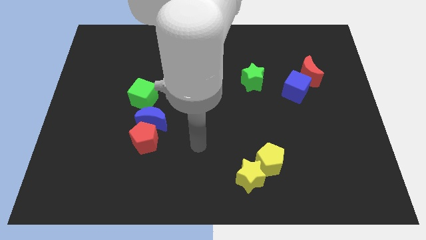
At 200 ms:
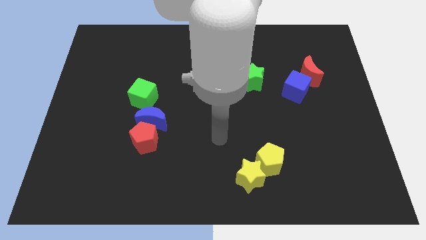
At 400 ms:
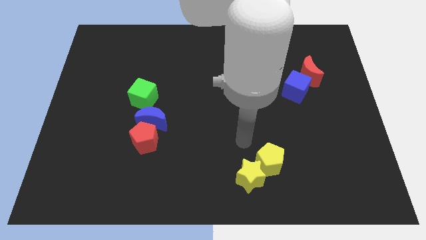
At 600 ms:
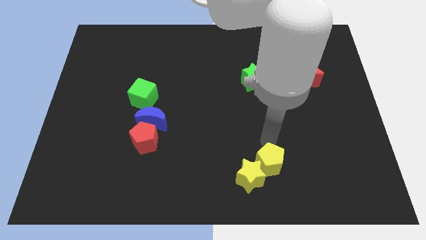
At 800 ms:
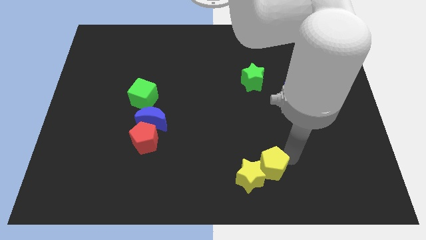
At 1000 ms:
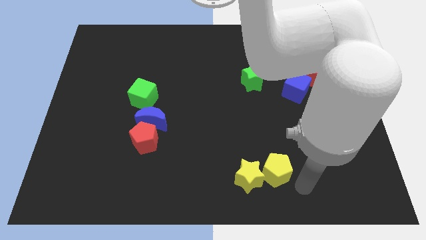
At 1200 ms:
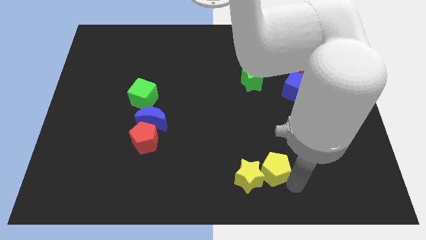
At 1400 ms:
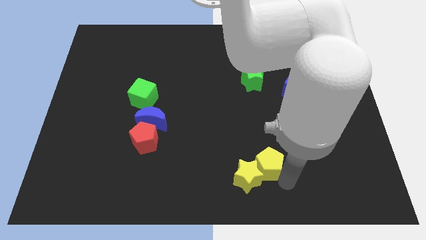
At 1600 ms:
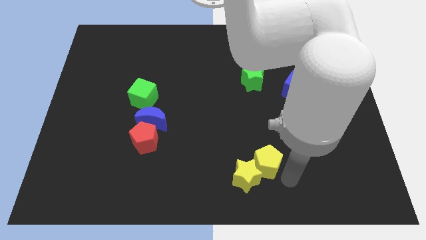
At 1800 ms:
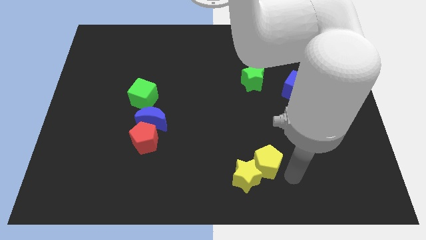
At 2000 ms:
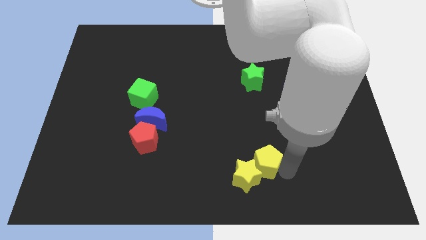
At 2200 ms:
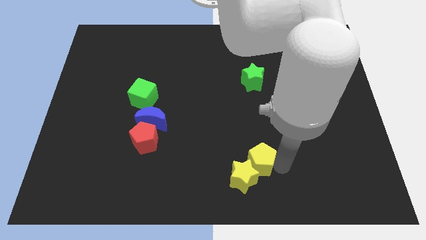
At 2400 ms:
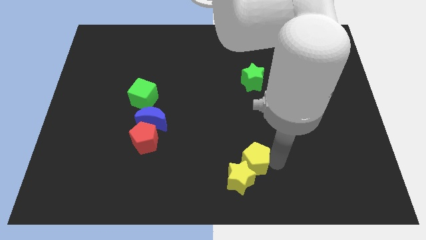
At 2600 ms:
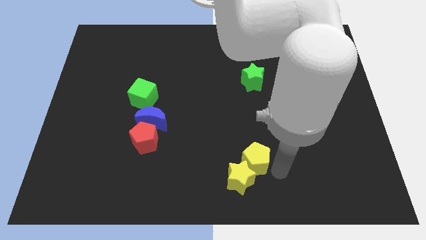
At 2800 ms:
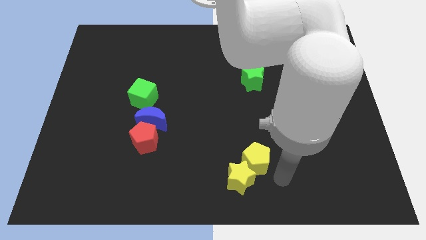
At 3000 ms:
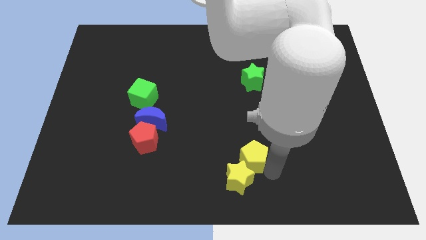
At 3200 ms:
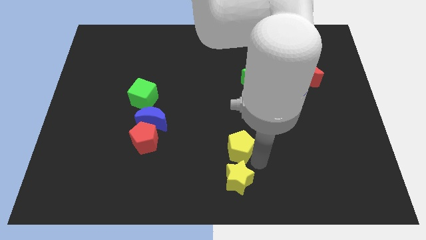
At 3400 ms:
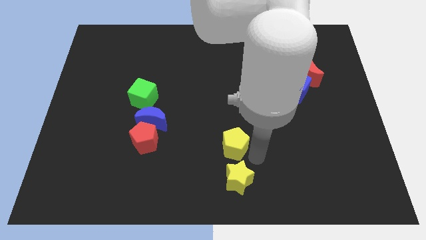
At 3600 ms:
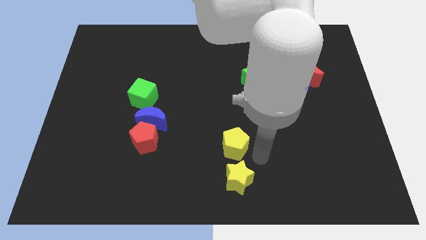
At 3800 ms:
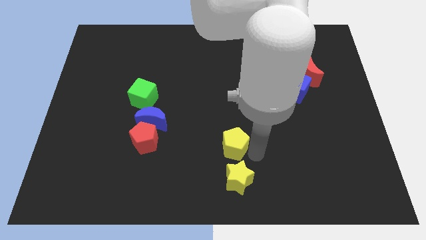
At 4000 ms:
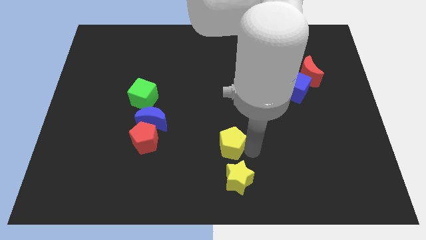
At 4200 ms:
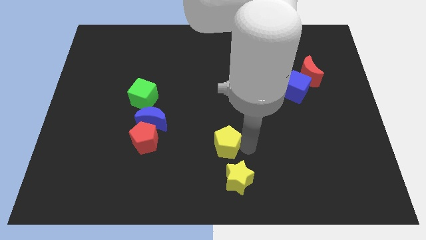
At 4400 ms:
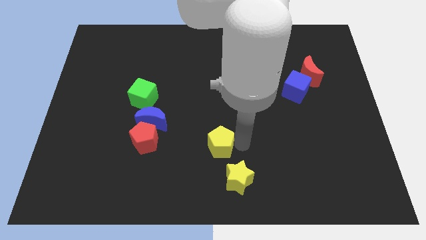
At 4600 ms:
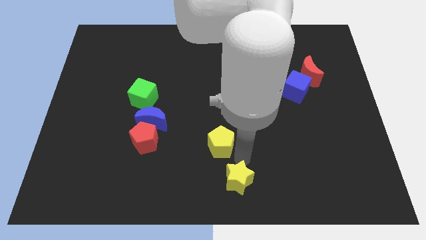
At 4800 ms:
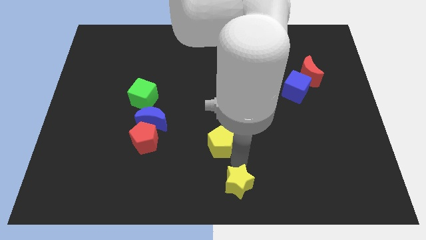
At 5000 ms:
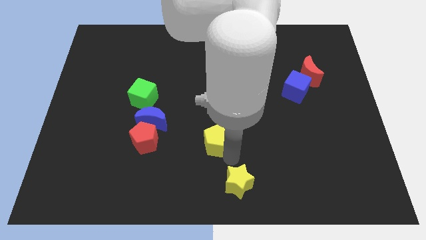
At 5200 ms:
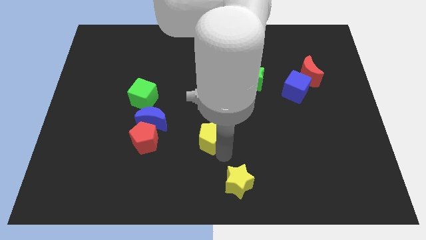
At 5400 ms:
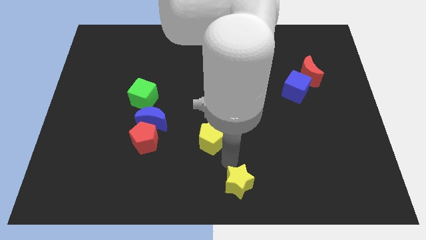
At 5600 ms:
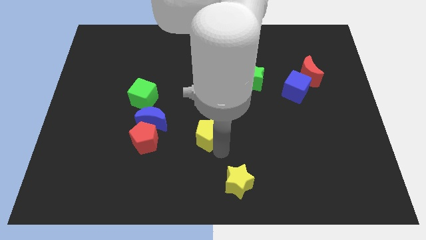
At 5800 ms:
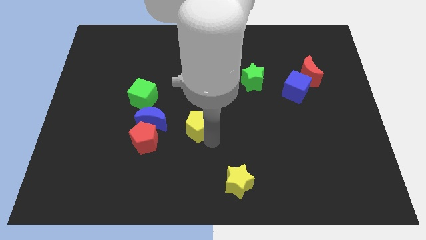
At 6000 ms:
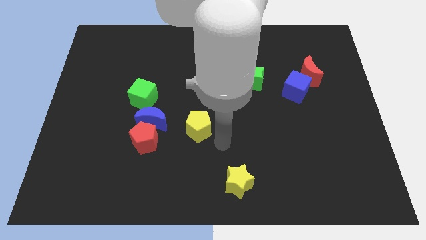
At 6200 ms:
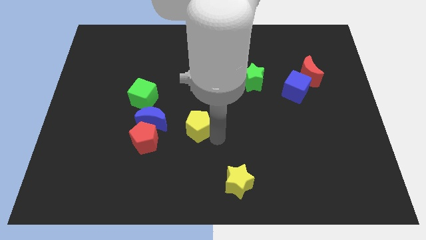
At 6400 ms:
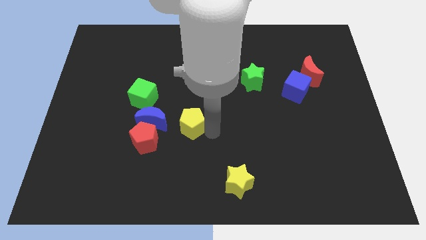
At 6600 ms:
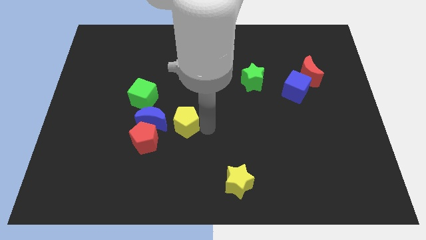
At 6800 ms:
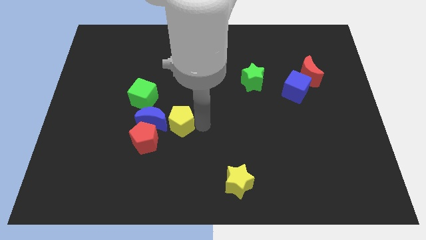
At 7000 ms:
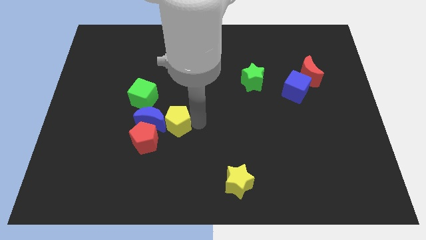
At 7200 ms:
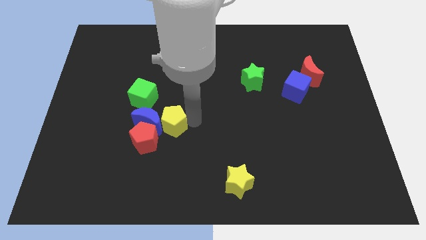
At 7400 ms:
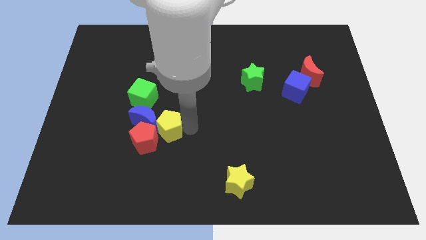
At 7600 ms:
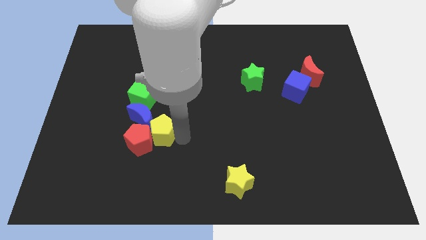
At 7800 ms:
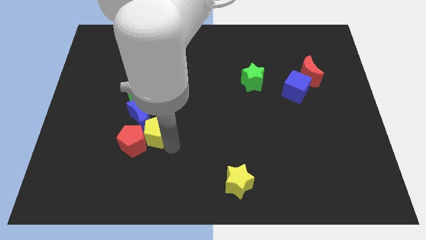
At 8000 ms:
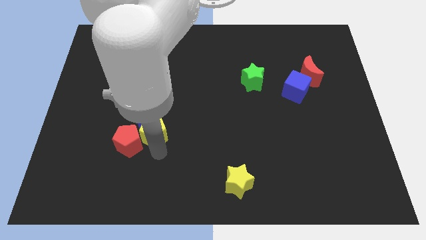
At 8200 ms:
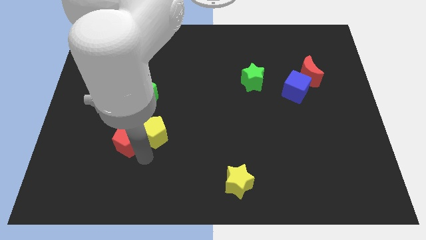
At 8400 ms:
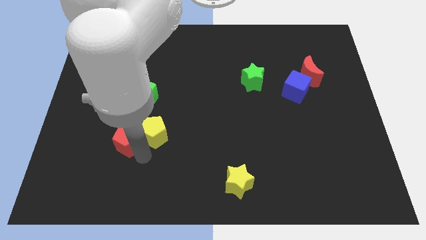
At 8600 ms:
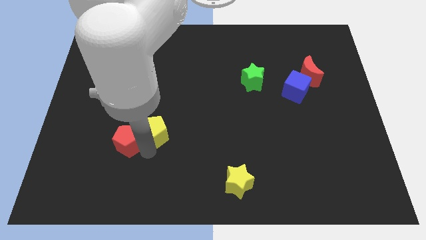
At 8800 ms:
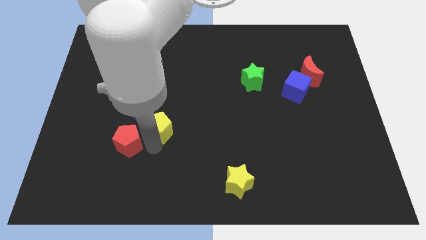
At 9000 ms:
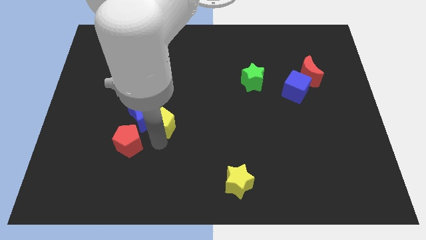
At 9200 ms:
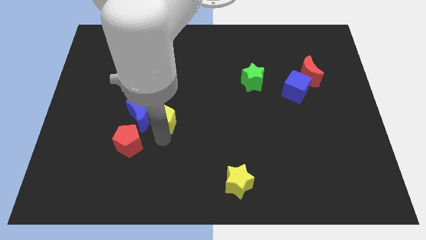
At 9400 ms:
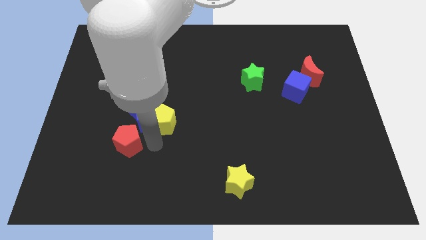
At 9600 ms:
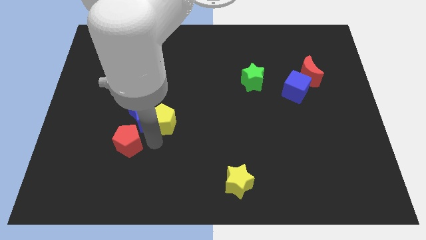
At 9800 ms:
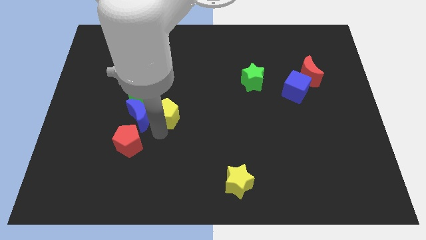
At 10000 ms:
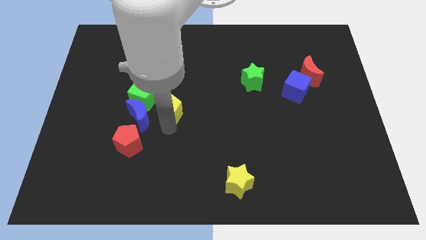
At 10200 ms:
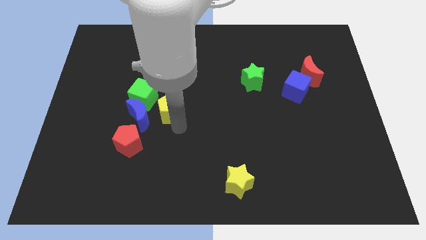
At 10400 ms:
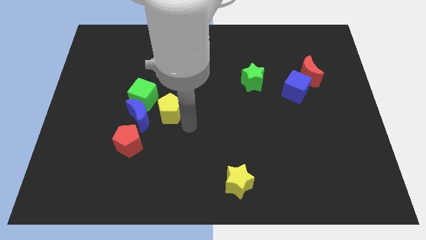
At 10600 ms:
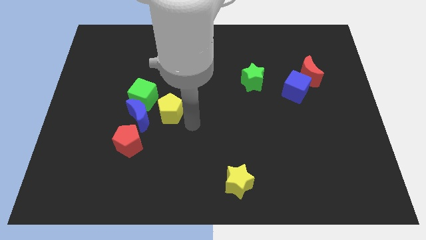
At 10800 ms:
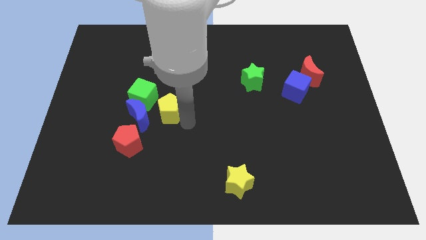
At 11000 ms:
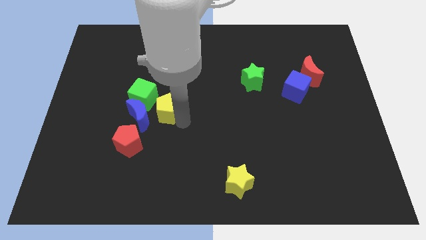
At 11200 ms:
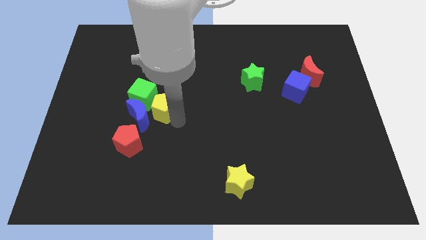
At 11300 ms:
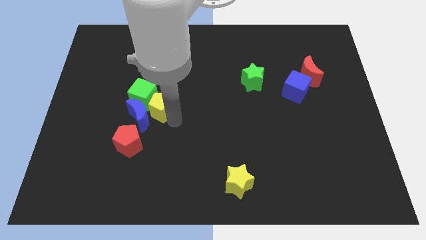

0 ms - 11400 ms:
put the yellow pentagon close to the green cube

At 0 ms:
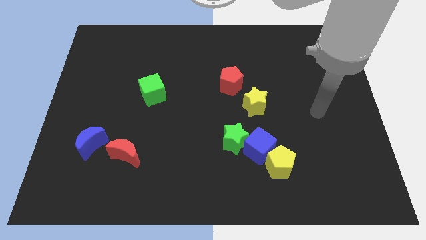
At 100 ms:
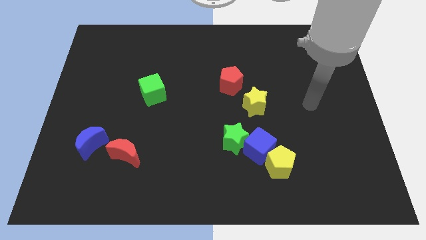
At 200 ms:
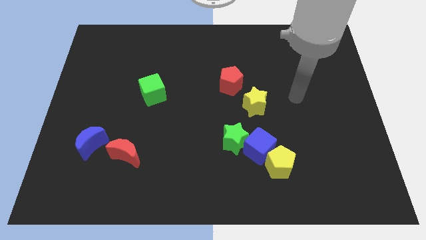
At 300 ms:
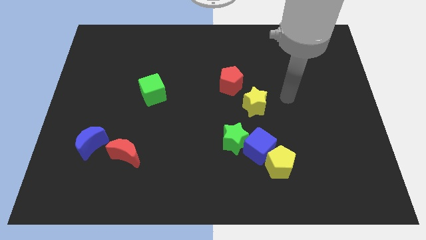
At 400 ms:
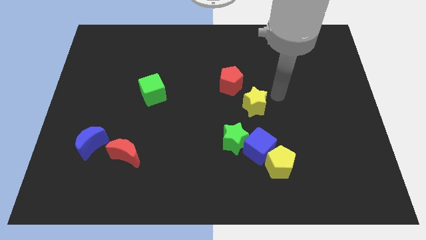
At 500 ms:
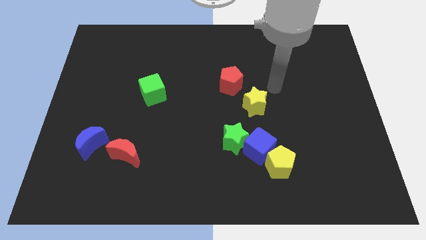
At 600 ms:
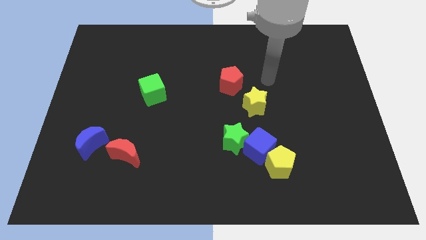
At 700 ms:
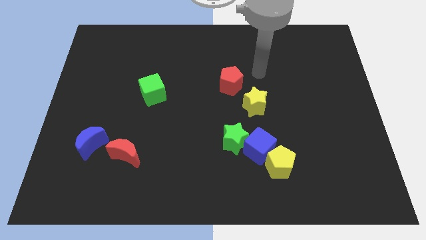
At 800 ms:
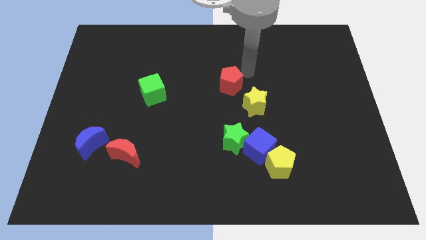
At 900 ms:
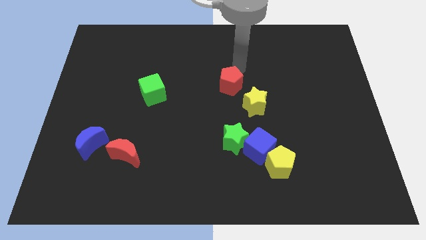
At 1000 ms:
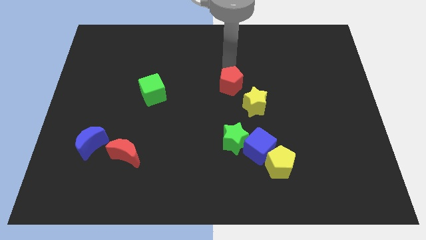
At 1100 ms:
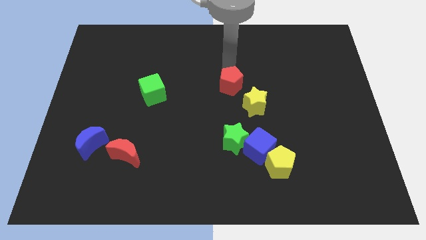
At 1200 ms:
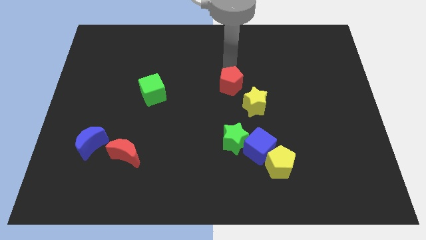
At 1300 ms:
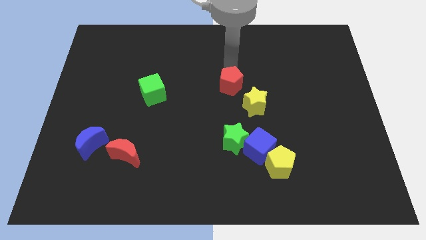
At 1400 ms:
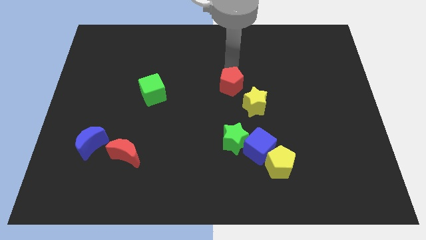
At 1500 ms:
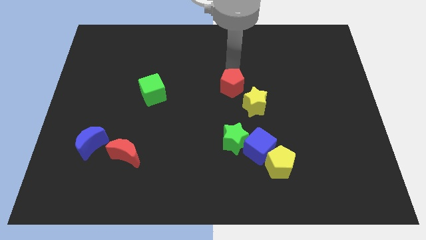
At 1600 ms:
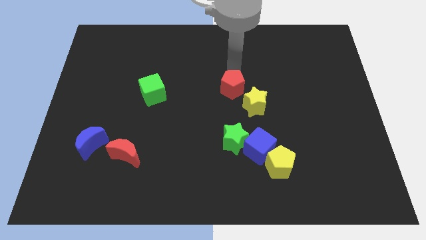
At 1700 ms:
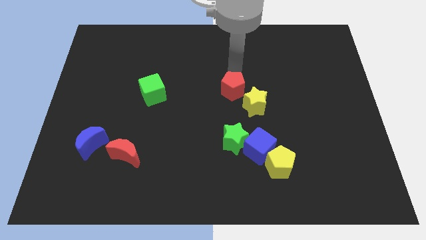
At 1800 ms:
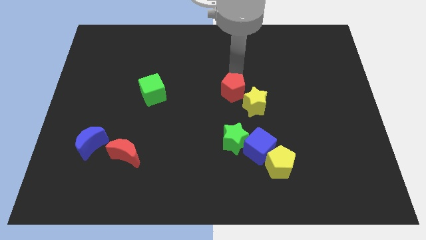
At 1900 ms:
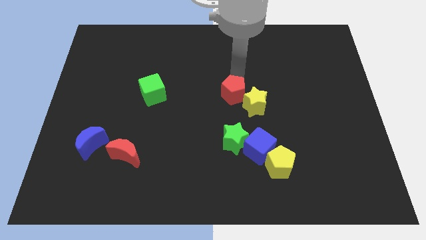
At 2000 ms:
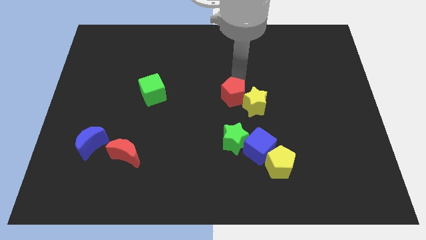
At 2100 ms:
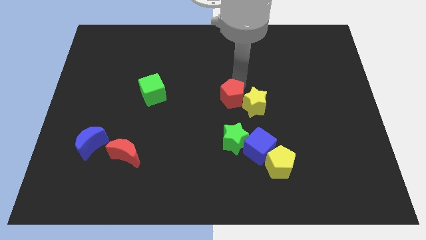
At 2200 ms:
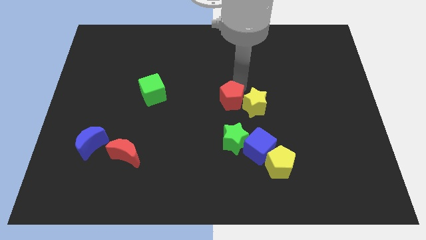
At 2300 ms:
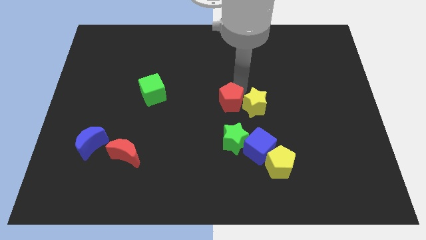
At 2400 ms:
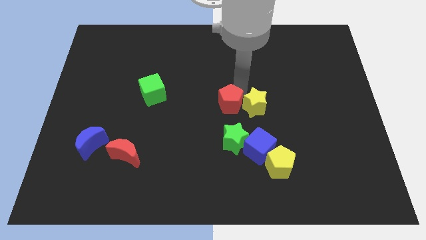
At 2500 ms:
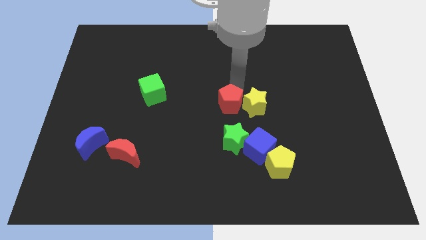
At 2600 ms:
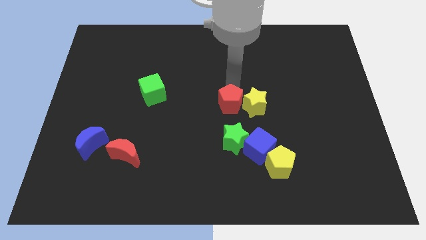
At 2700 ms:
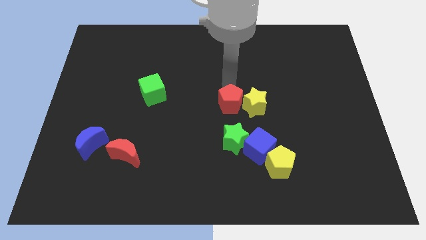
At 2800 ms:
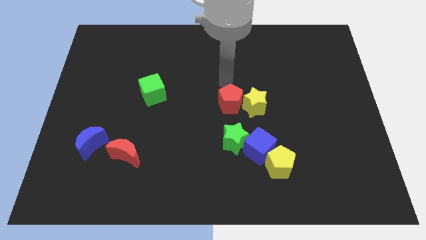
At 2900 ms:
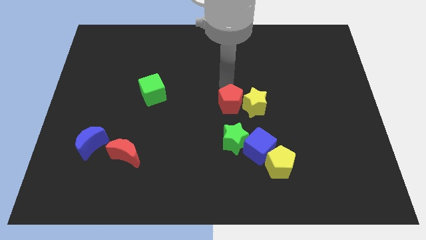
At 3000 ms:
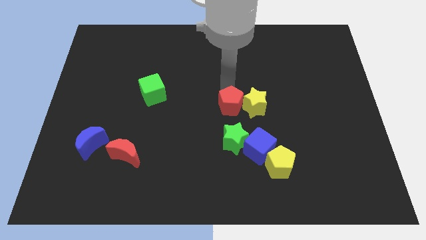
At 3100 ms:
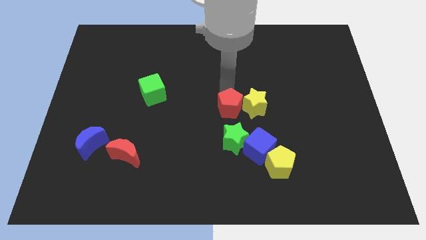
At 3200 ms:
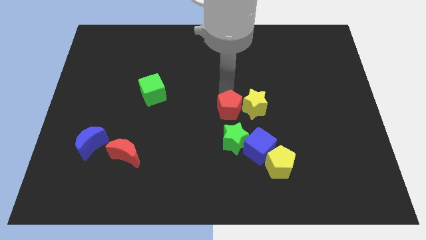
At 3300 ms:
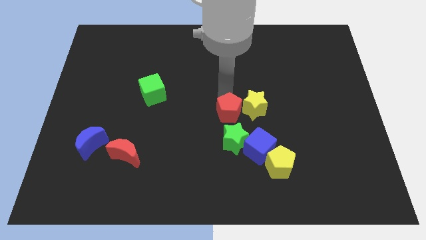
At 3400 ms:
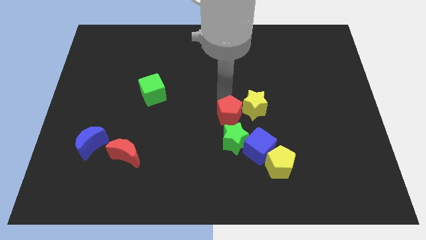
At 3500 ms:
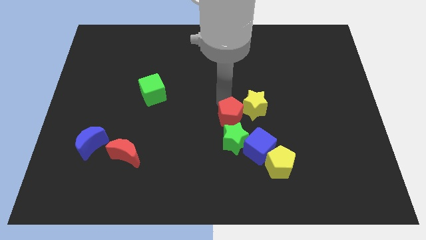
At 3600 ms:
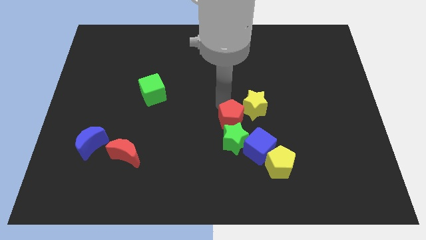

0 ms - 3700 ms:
slide the red pentagon towards the green star
